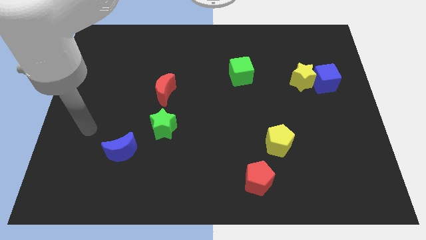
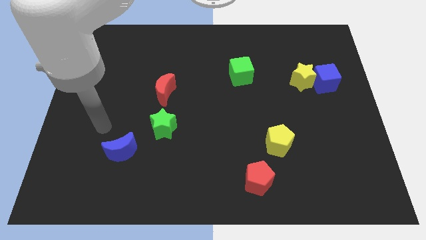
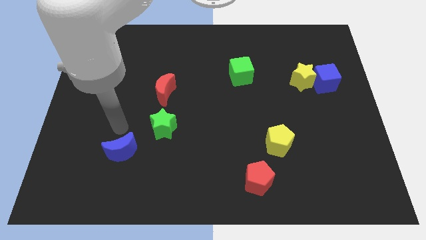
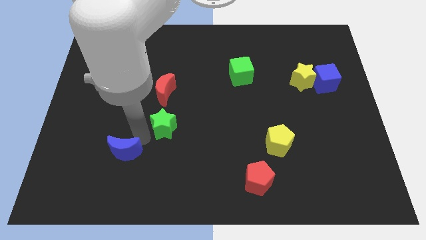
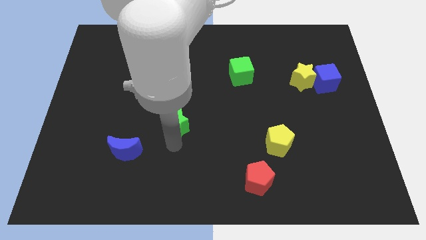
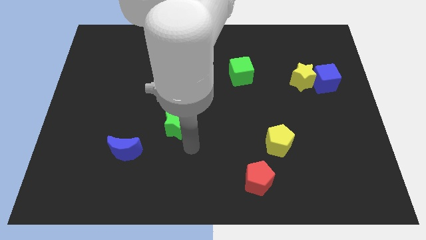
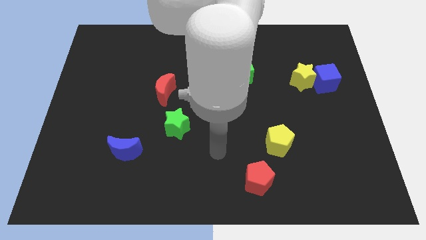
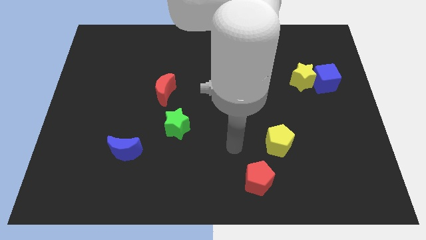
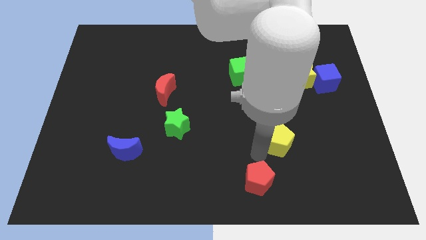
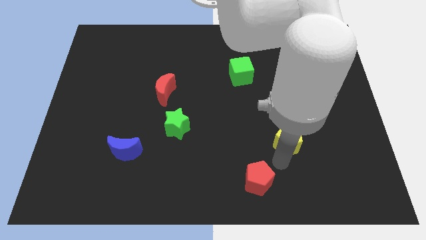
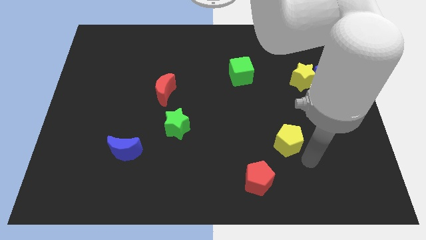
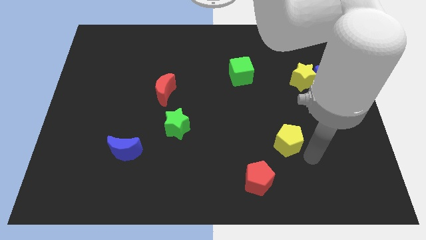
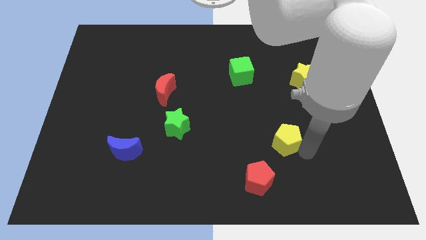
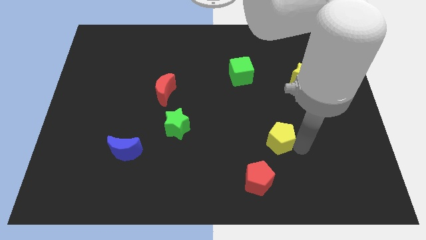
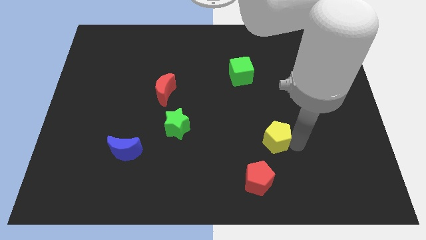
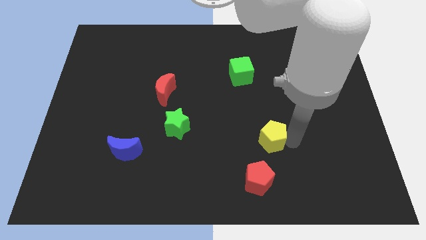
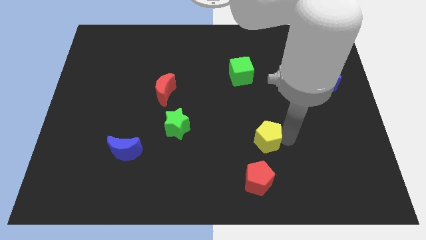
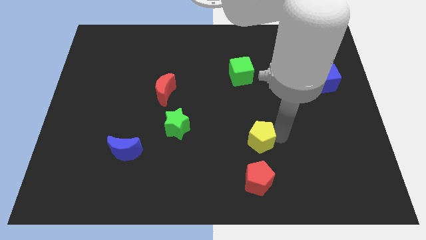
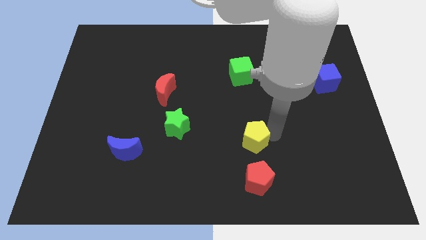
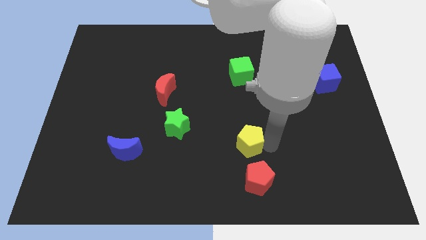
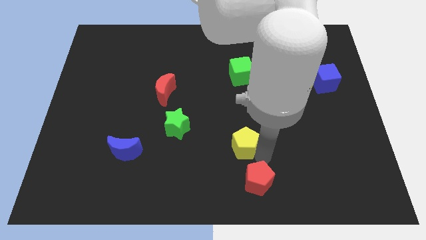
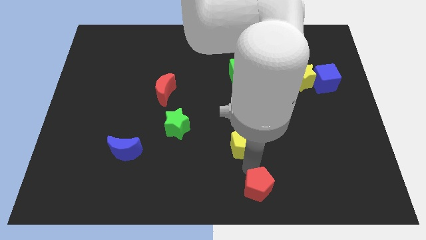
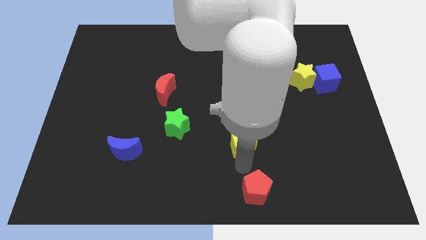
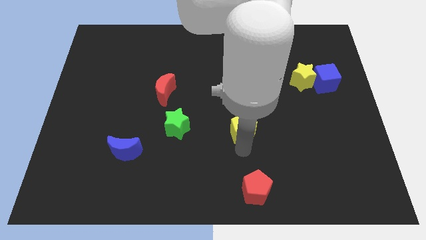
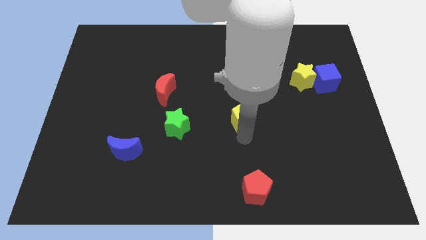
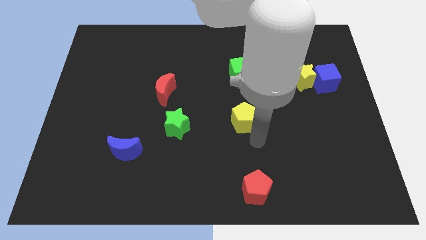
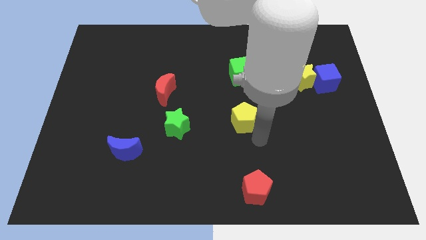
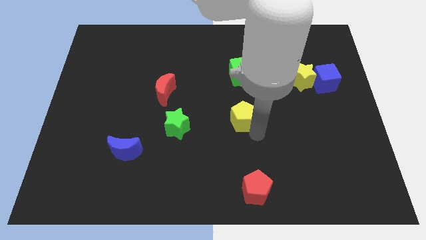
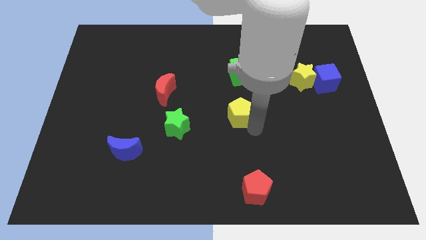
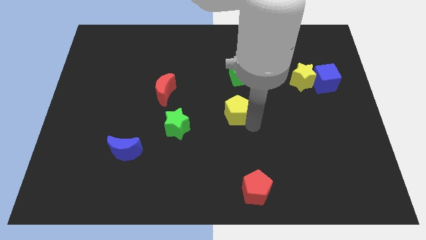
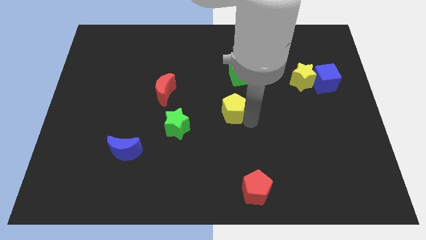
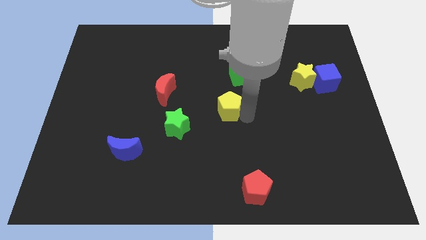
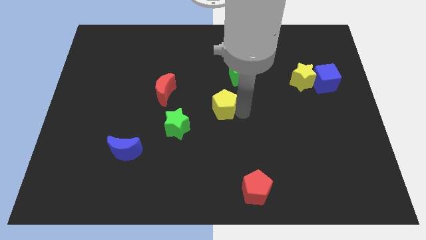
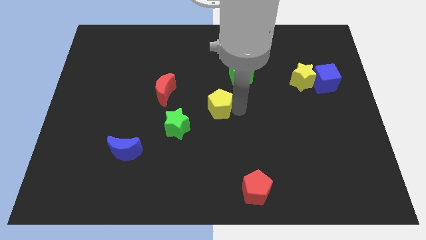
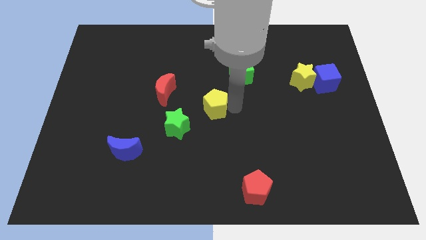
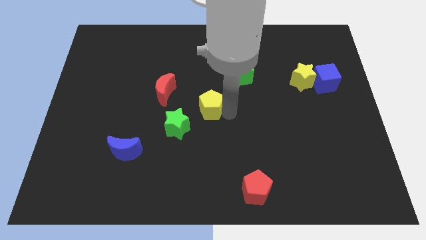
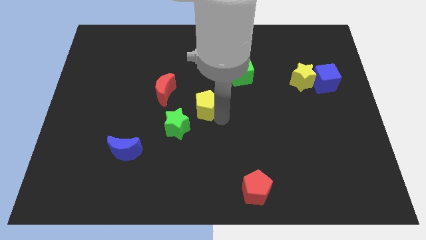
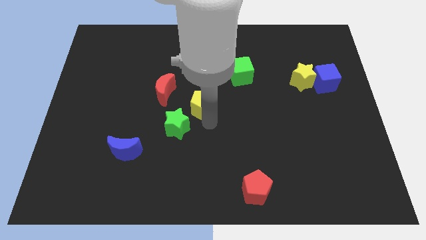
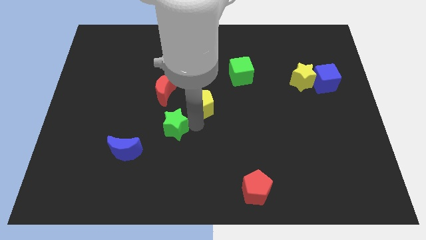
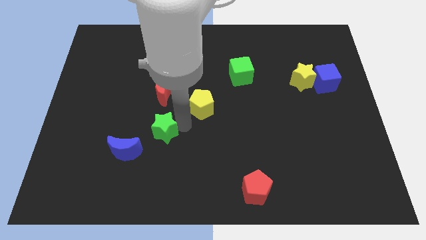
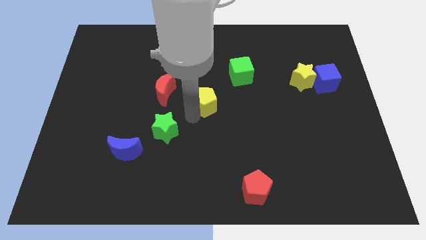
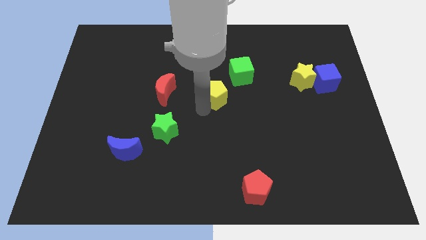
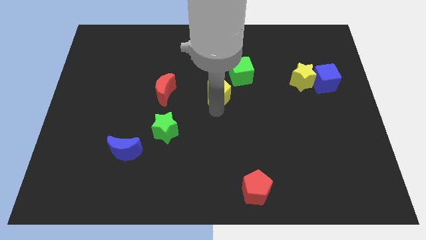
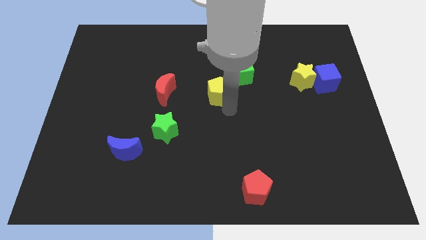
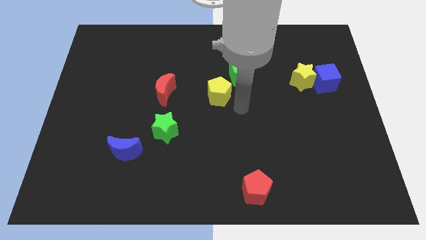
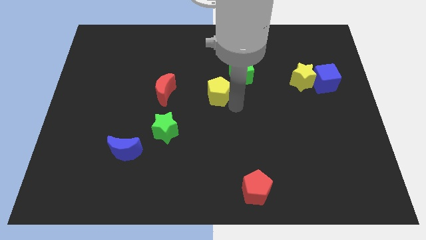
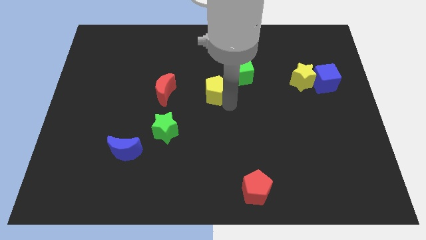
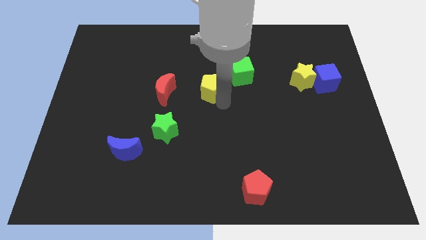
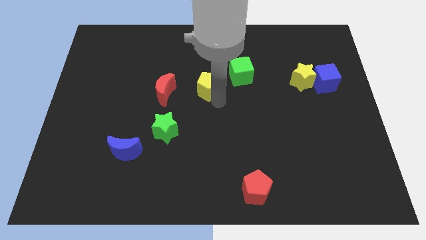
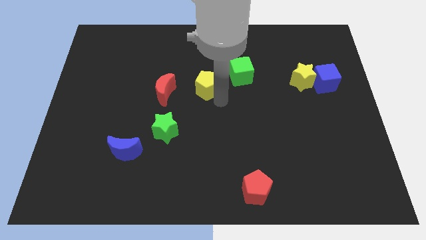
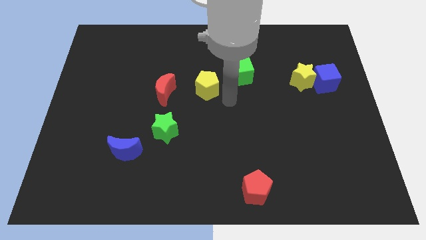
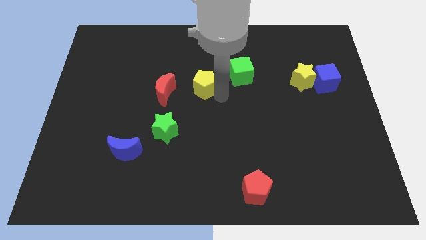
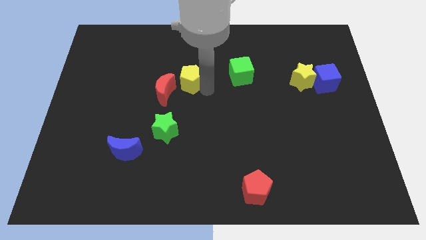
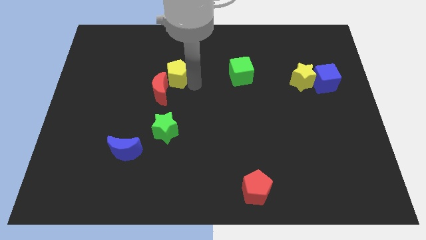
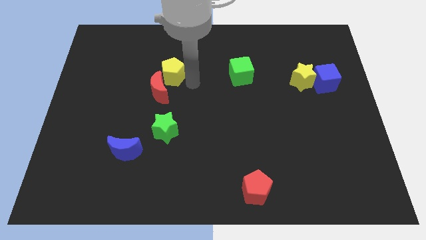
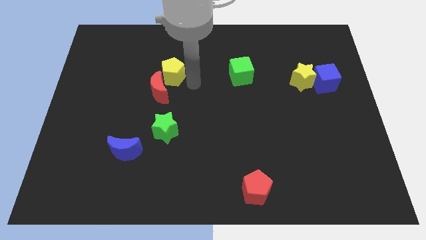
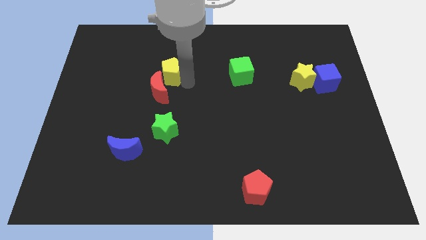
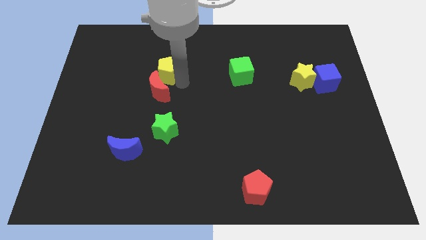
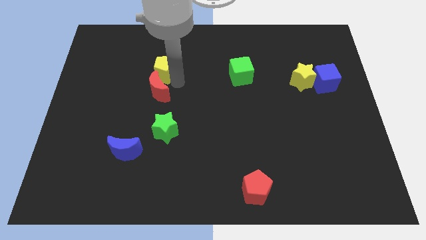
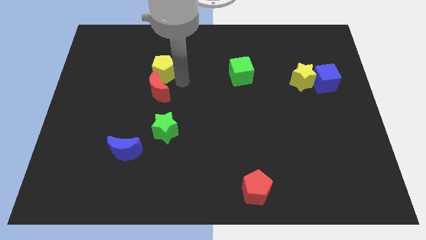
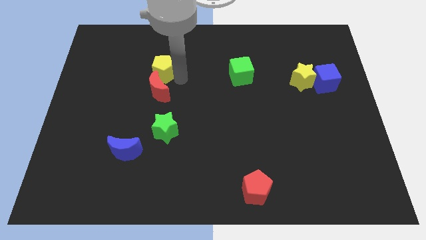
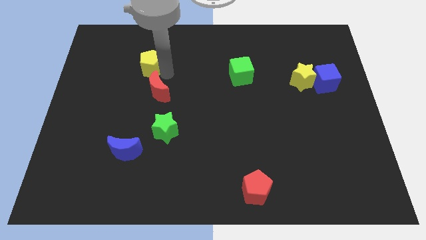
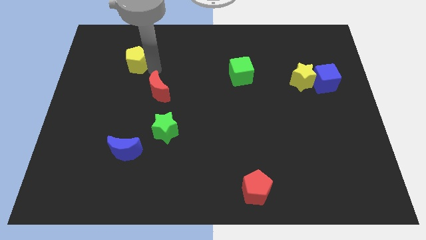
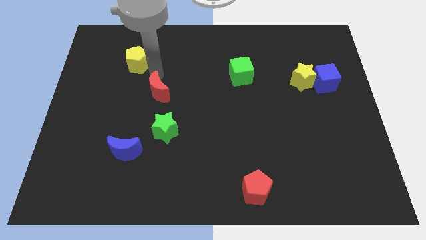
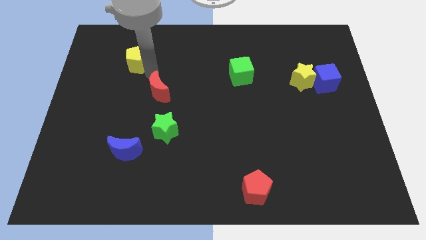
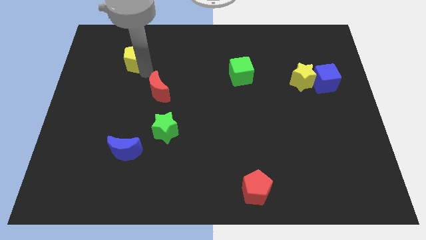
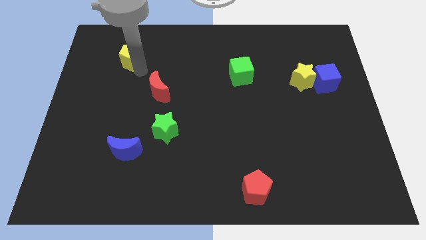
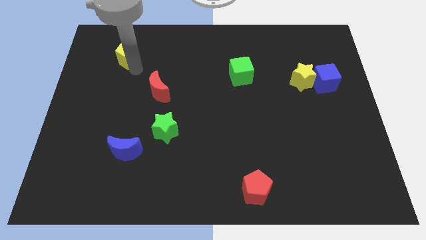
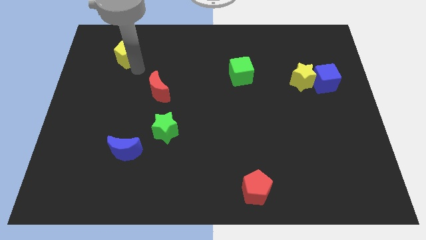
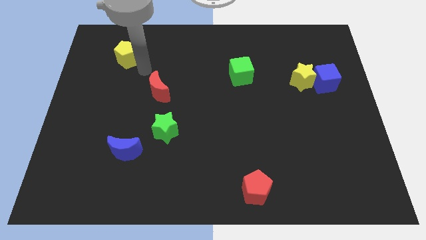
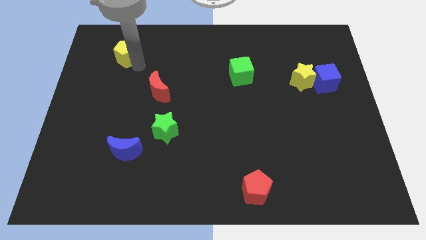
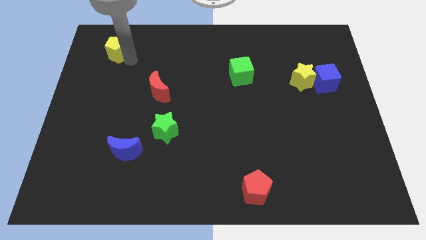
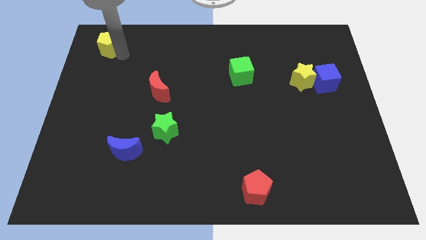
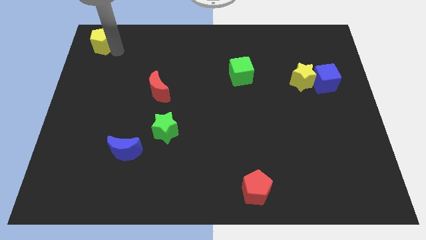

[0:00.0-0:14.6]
put the yellow pentagon to the upper left corner
